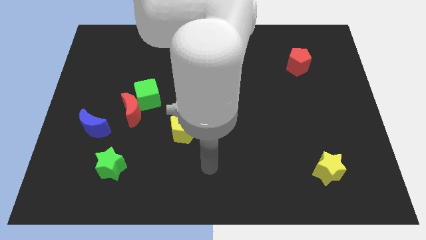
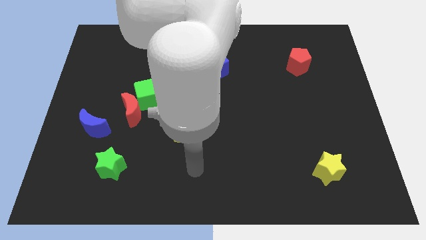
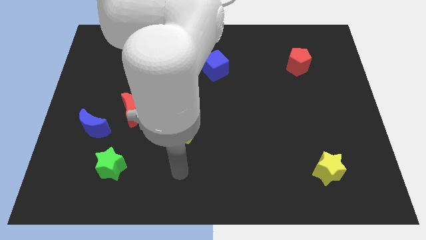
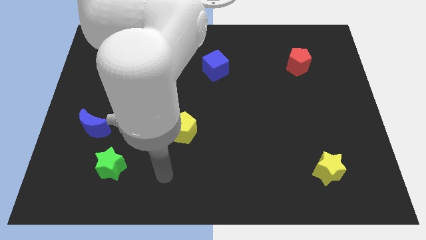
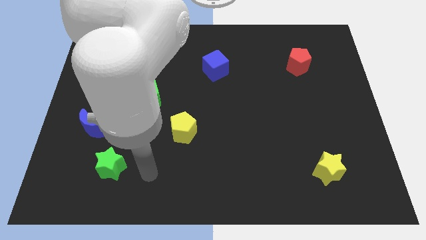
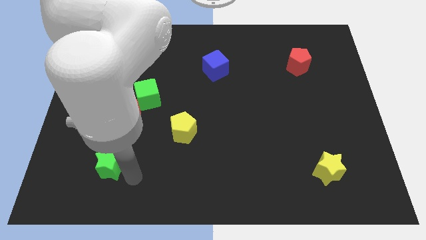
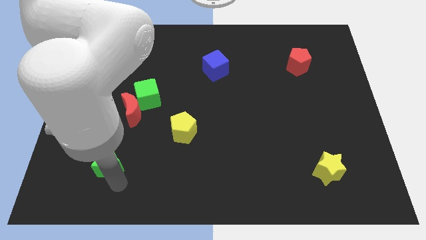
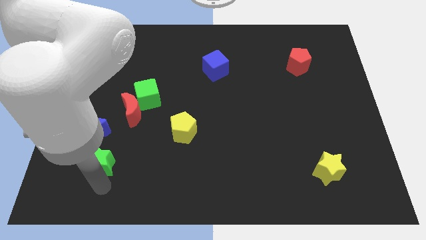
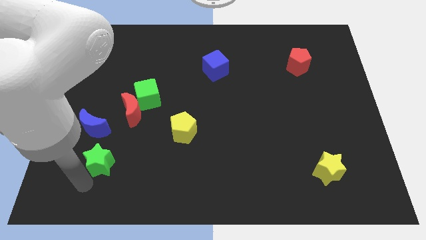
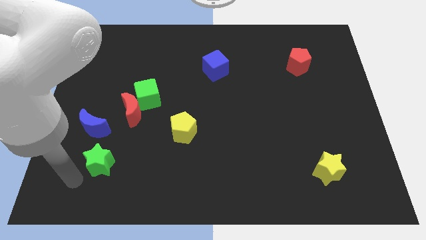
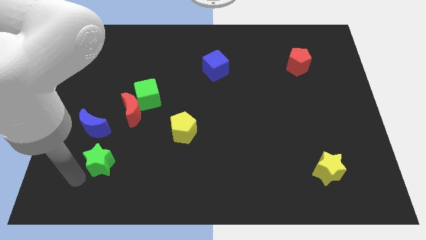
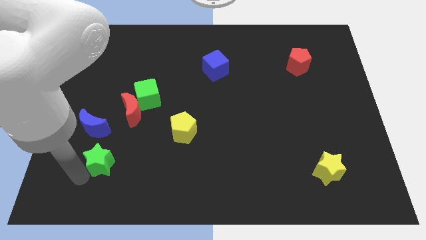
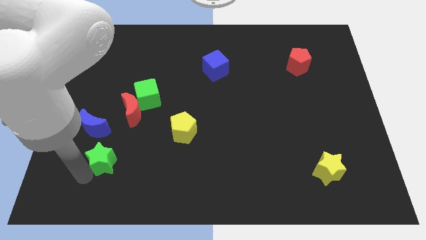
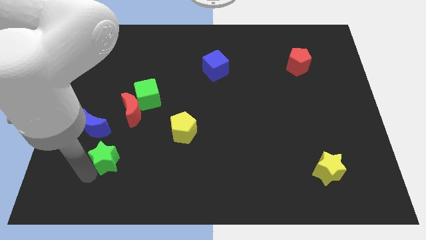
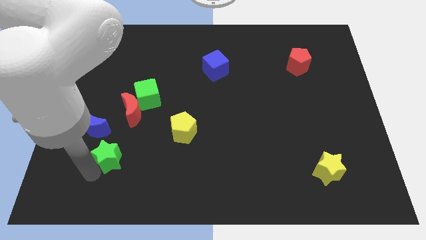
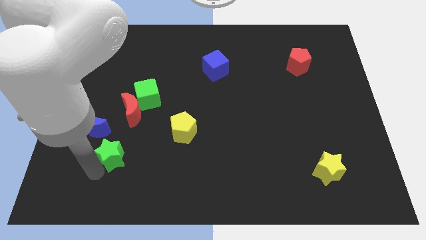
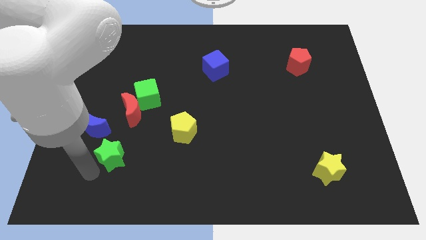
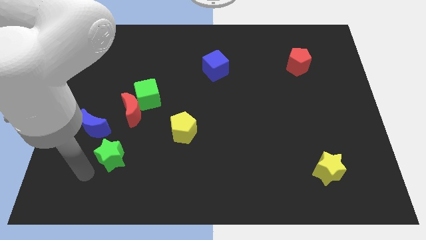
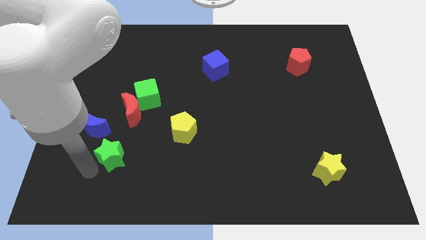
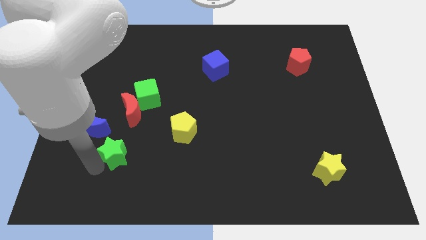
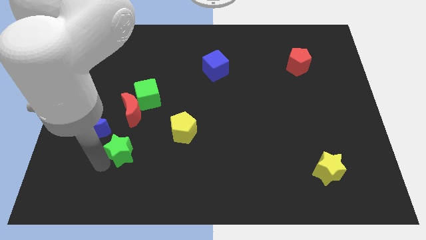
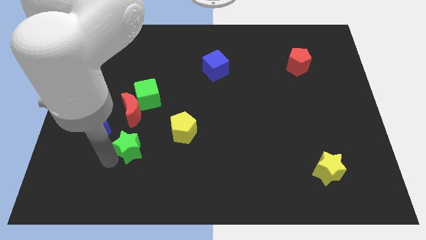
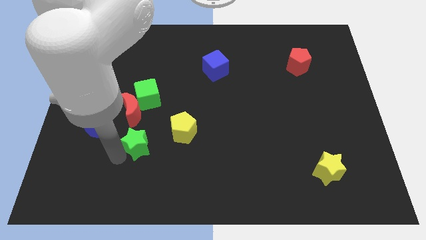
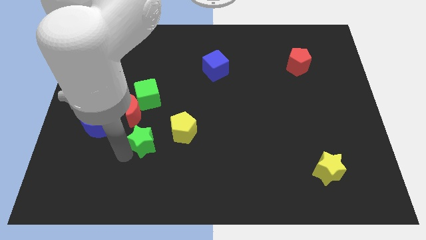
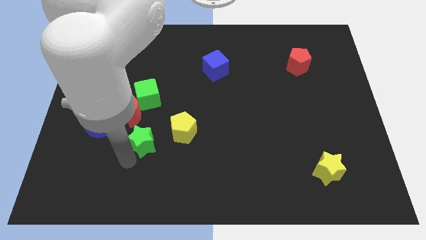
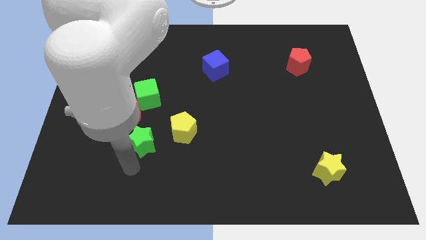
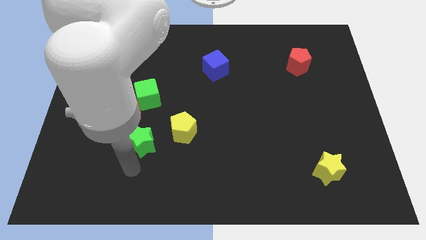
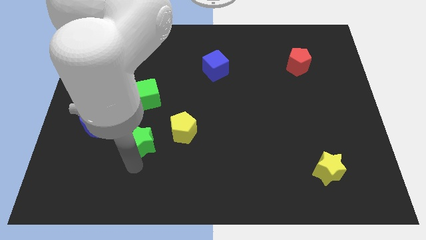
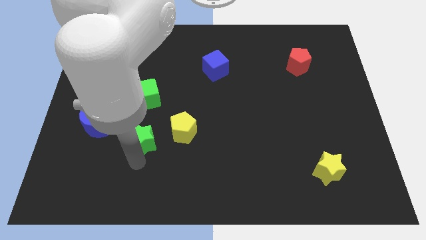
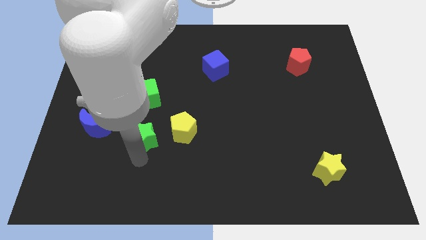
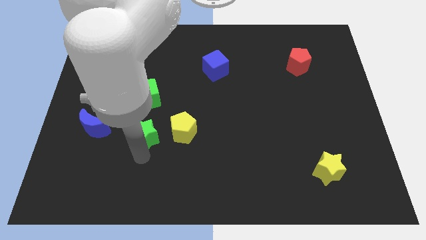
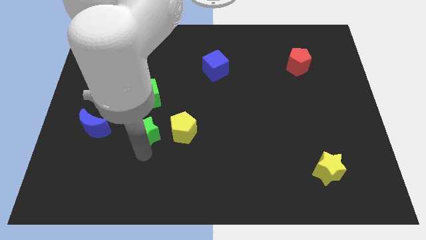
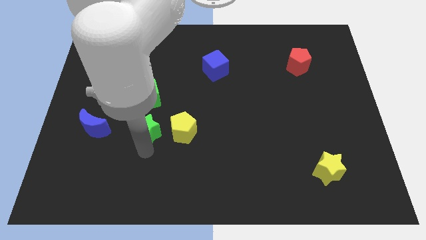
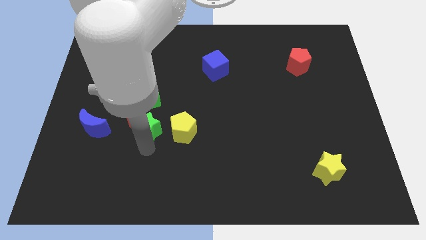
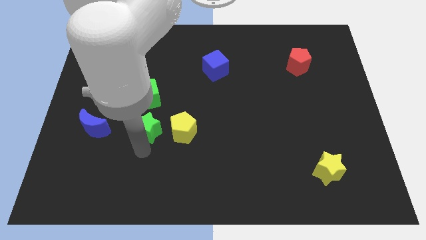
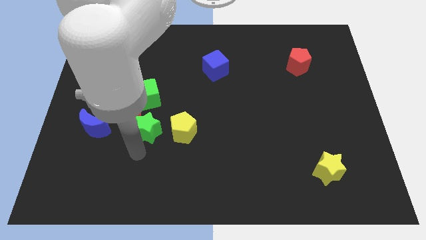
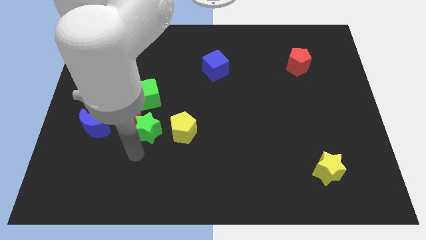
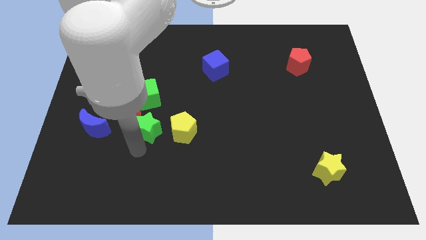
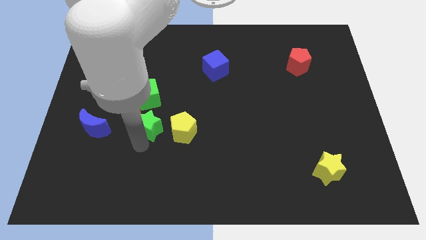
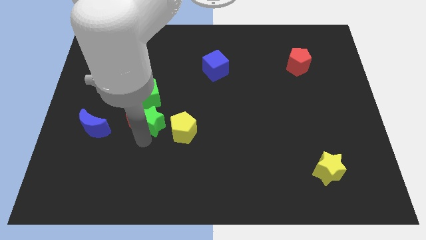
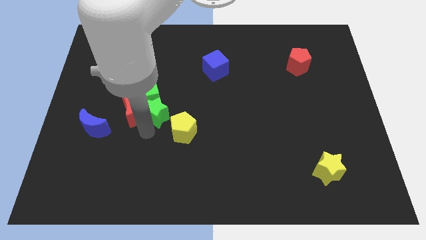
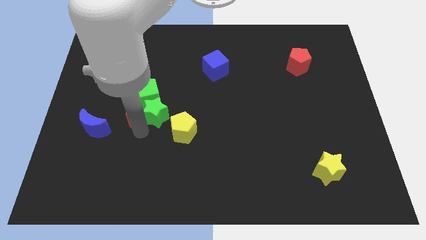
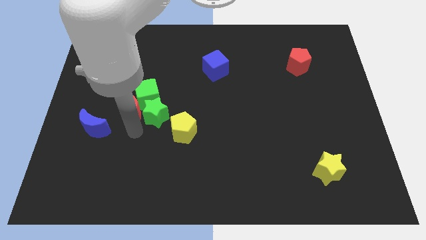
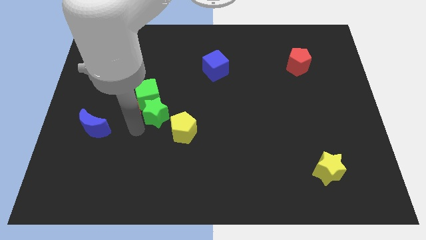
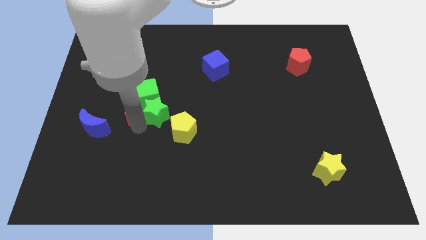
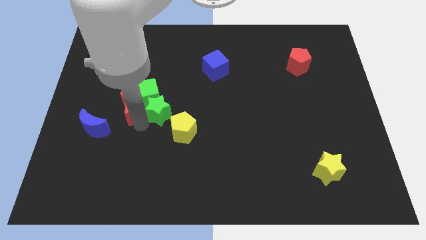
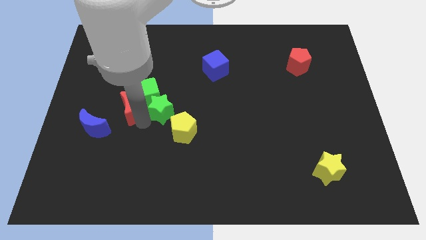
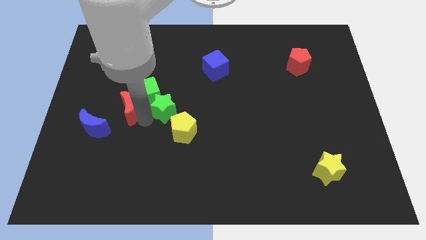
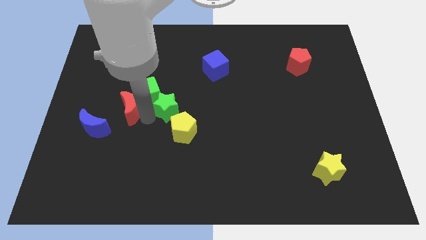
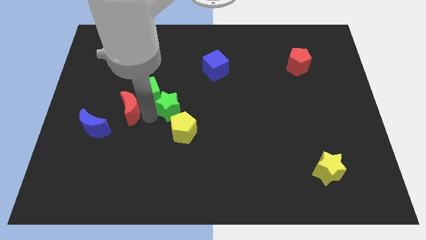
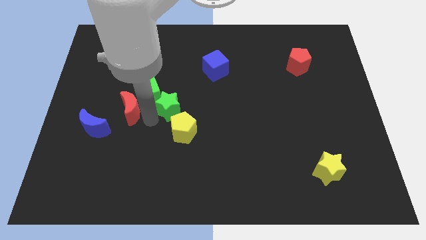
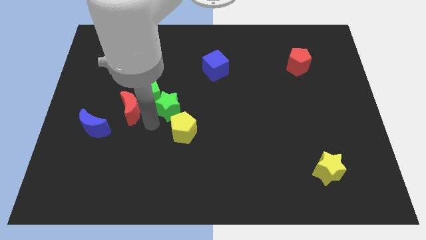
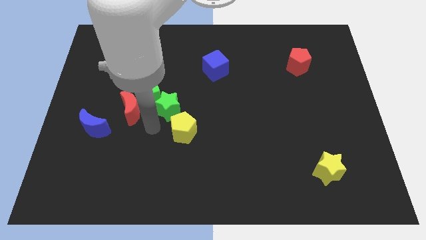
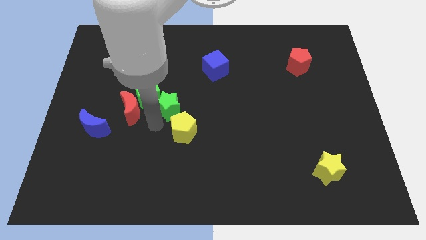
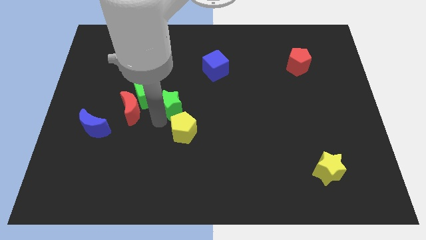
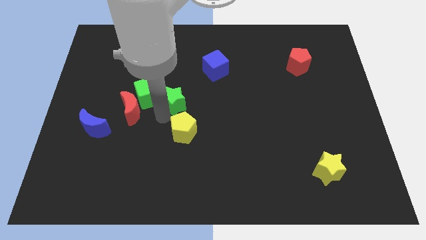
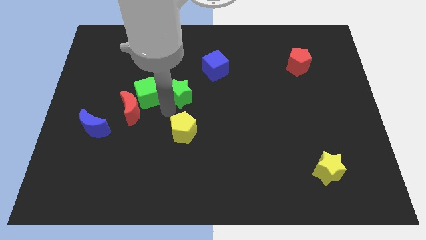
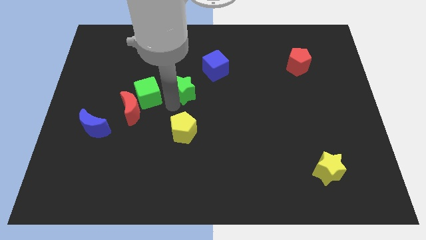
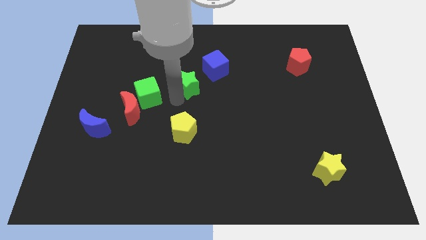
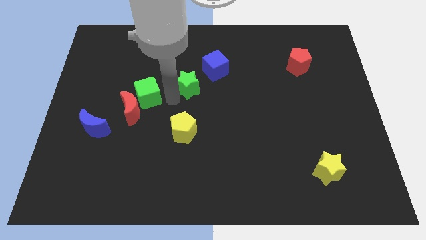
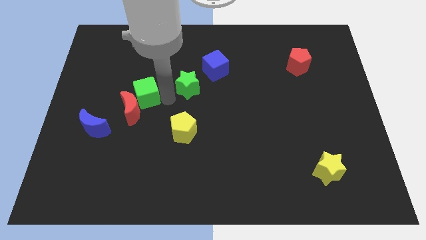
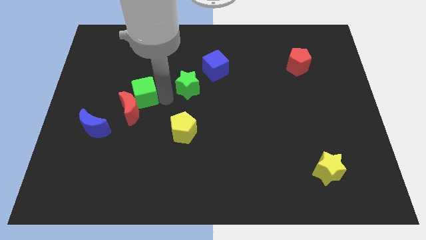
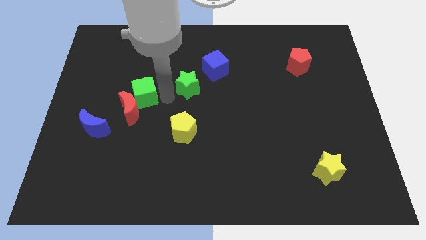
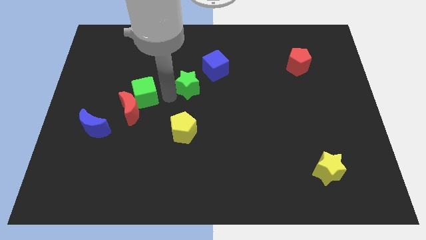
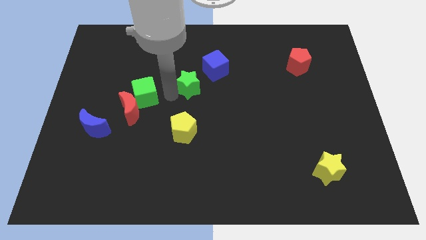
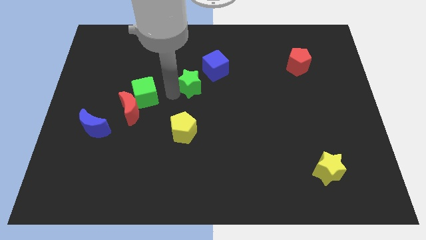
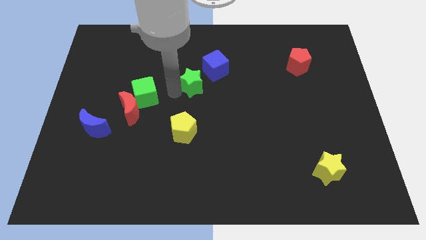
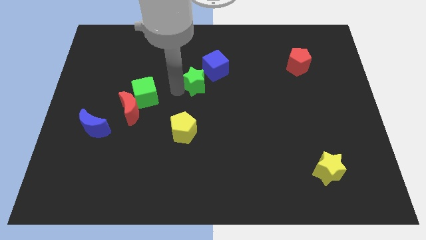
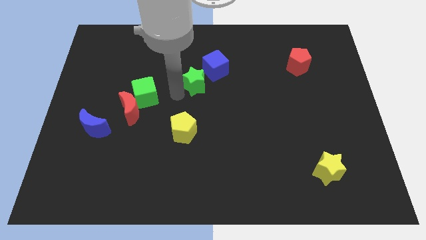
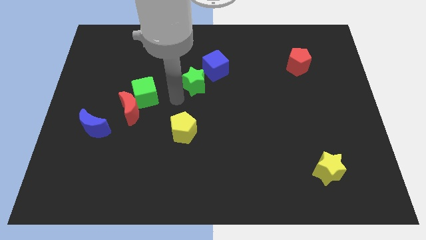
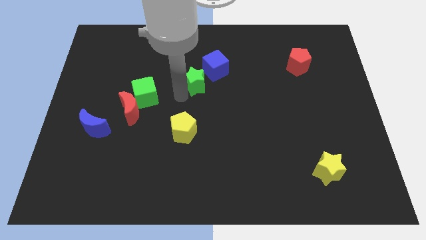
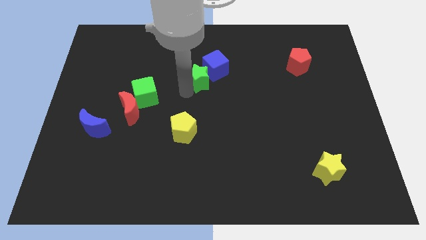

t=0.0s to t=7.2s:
push the green star close to the blue cube
